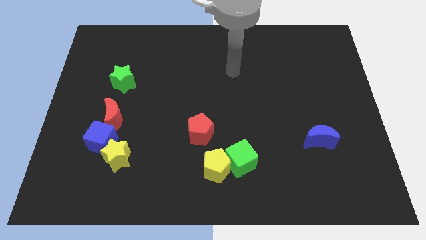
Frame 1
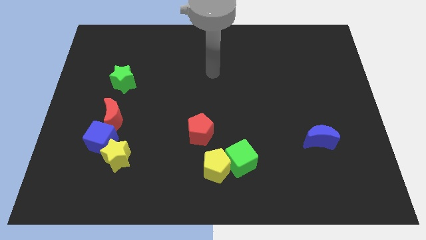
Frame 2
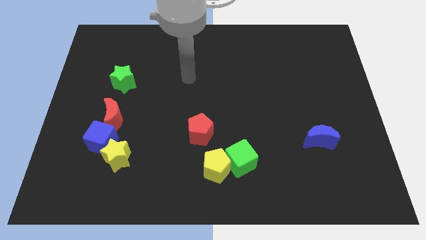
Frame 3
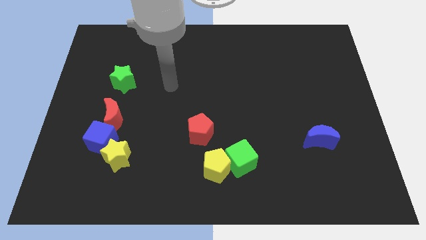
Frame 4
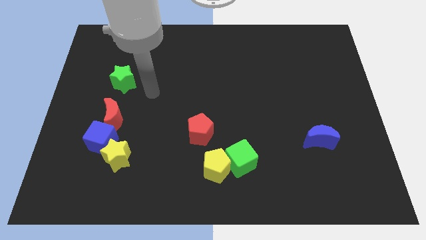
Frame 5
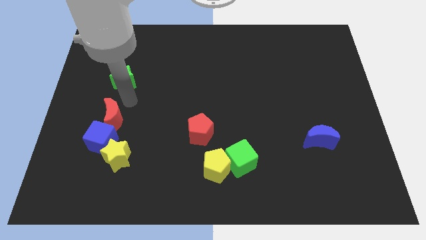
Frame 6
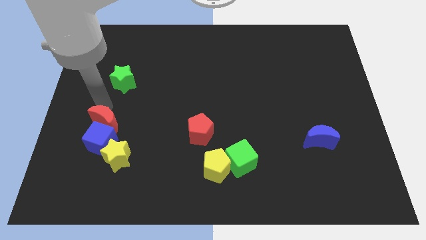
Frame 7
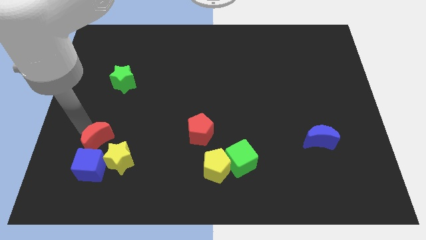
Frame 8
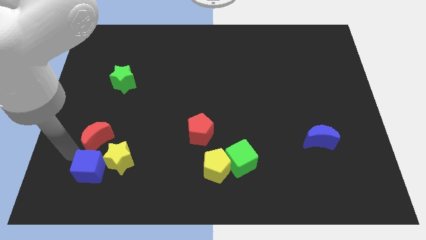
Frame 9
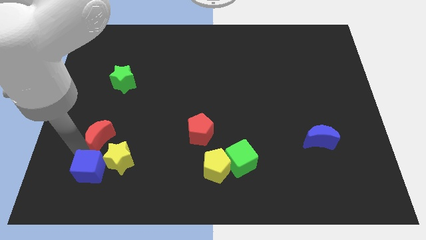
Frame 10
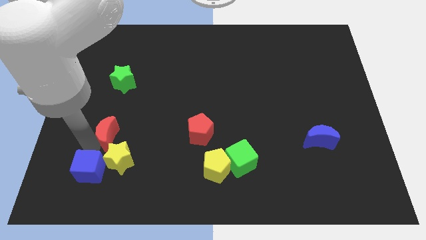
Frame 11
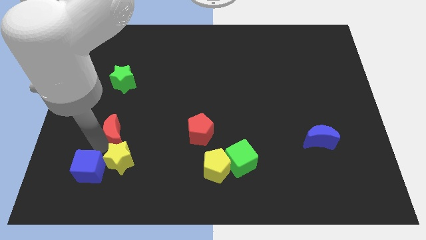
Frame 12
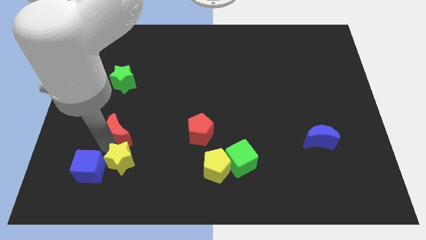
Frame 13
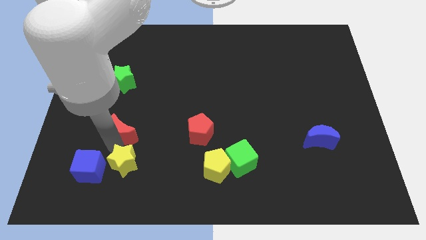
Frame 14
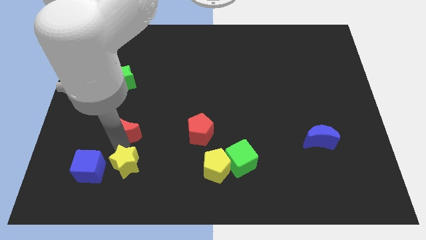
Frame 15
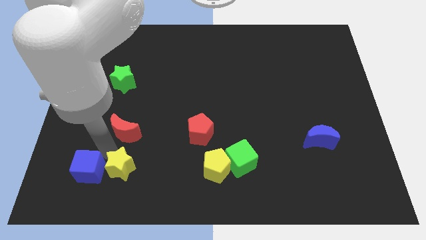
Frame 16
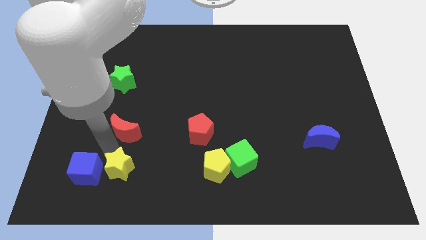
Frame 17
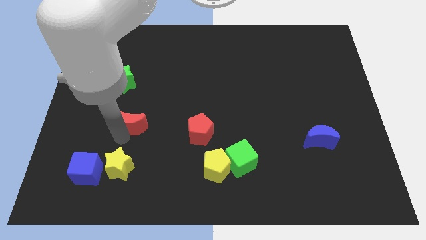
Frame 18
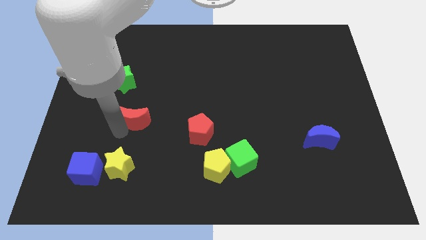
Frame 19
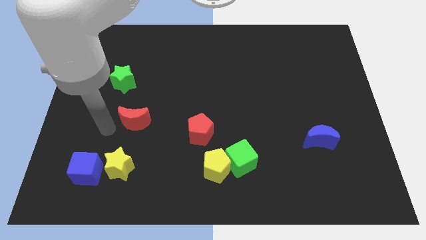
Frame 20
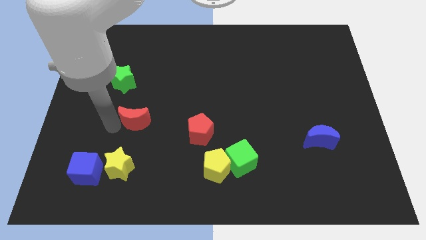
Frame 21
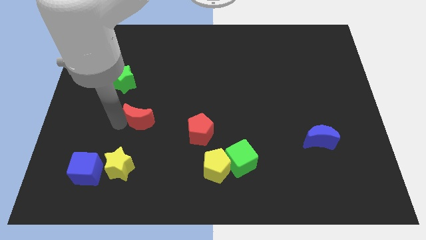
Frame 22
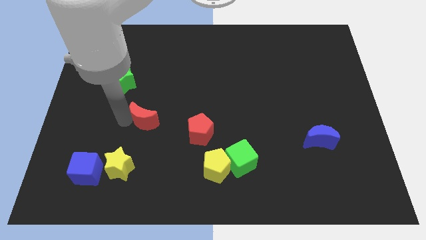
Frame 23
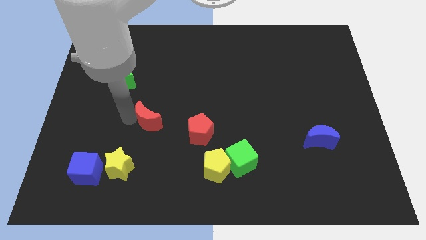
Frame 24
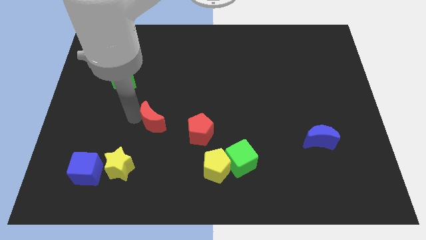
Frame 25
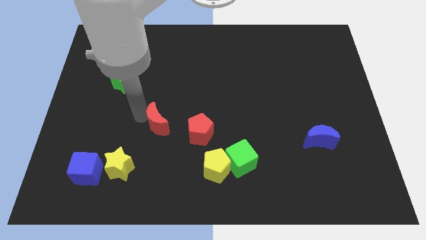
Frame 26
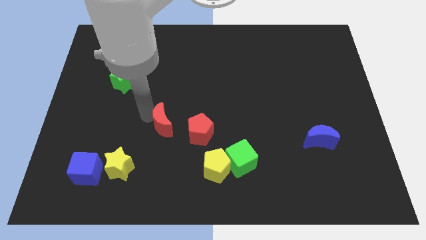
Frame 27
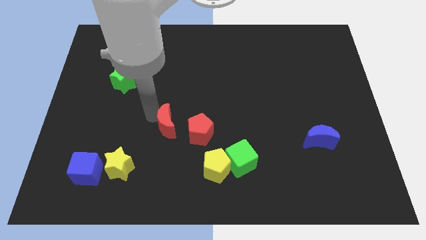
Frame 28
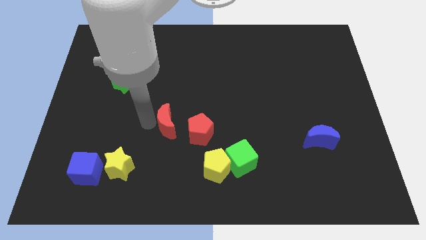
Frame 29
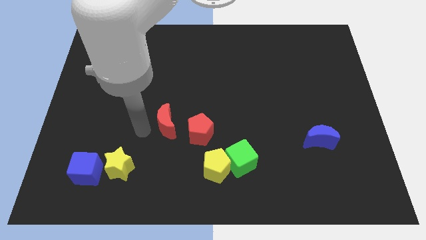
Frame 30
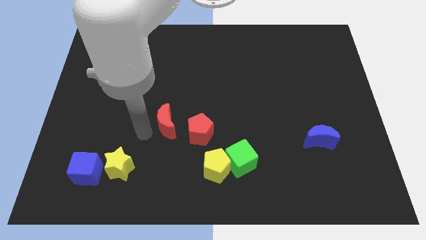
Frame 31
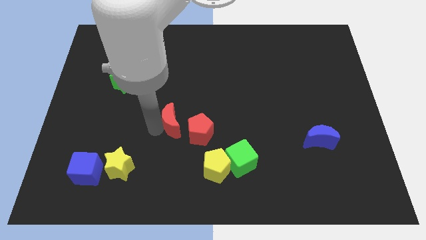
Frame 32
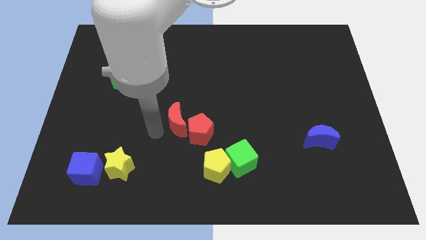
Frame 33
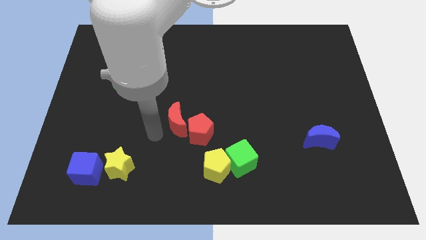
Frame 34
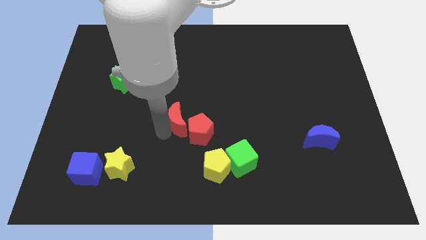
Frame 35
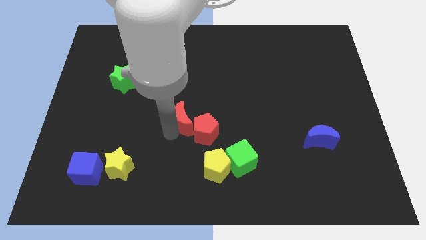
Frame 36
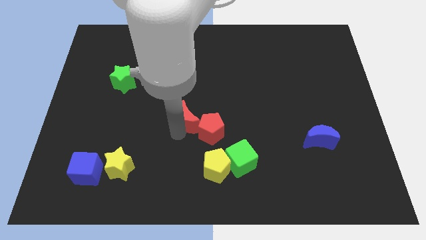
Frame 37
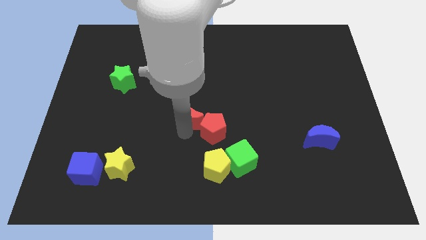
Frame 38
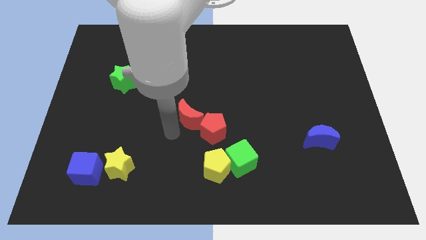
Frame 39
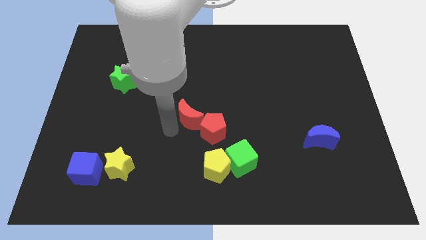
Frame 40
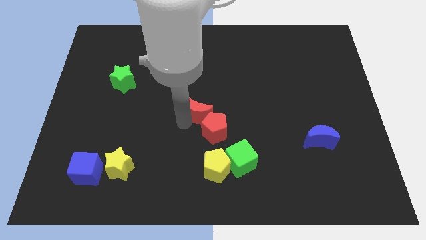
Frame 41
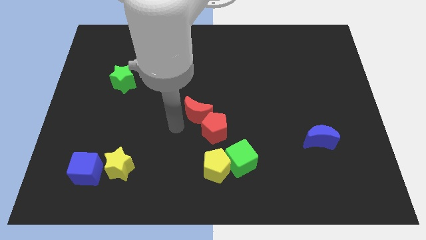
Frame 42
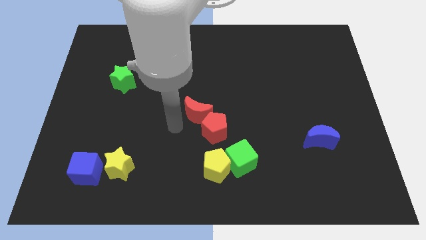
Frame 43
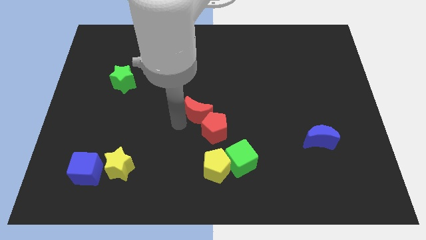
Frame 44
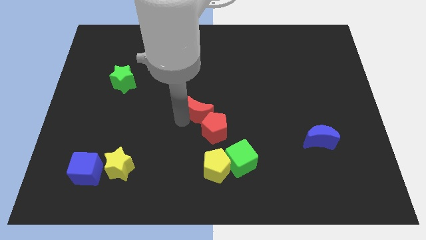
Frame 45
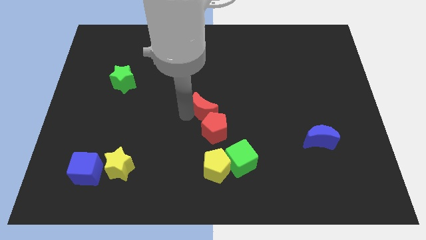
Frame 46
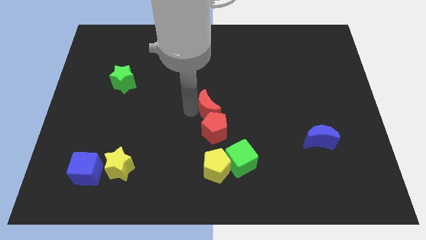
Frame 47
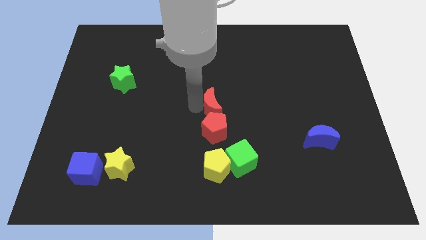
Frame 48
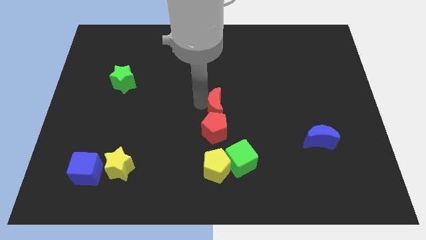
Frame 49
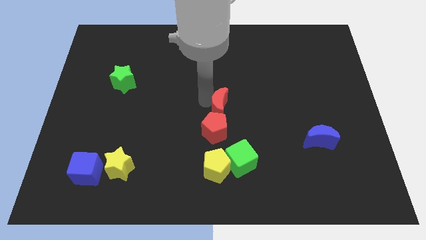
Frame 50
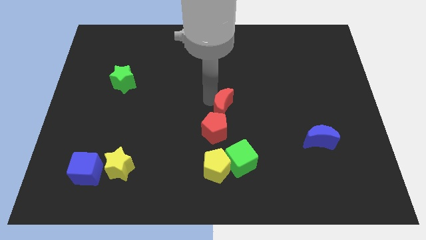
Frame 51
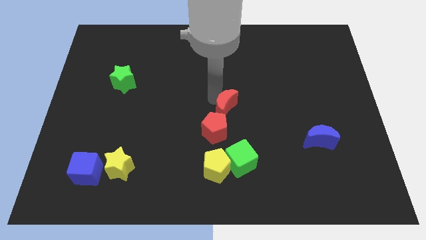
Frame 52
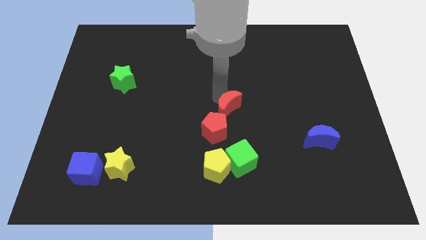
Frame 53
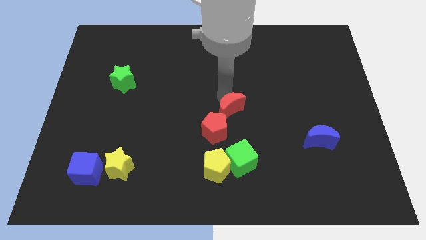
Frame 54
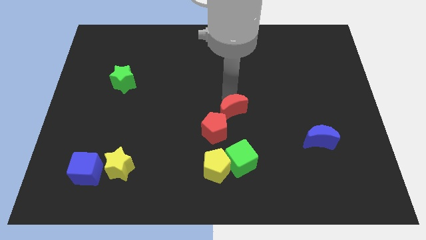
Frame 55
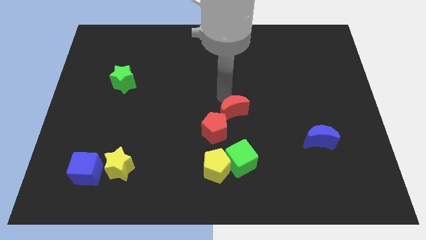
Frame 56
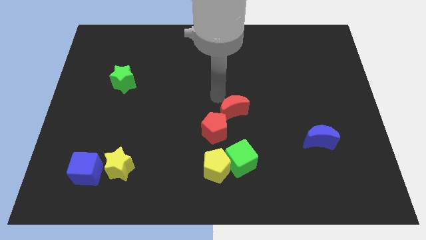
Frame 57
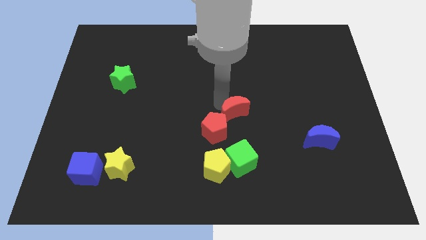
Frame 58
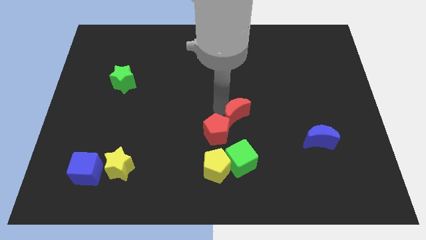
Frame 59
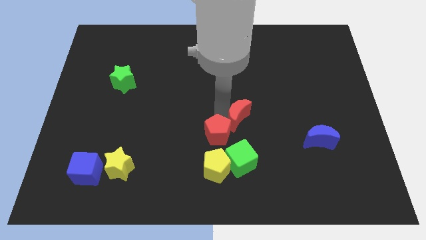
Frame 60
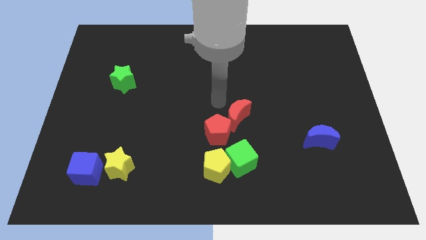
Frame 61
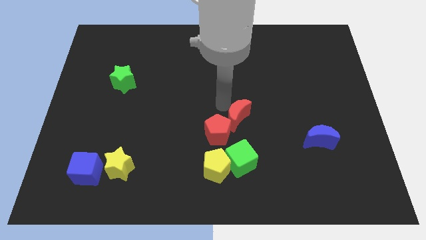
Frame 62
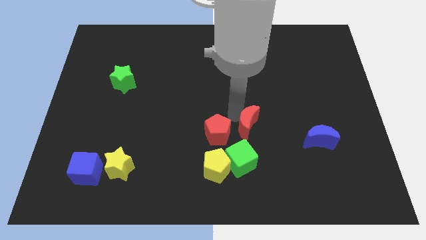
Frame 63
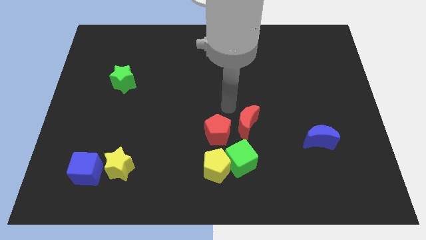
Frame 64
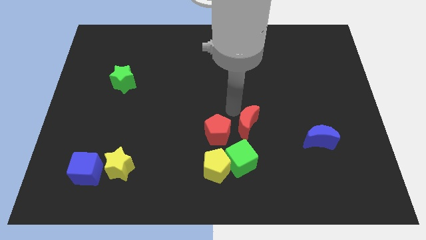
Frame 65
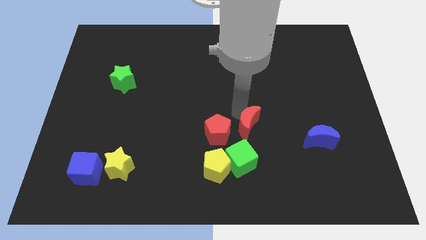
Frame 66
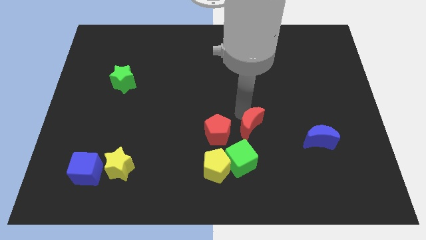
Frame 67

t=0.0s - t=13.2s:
slide the red moon to the top right of the green cube
